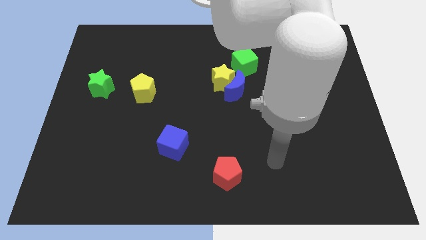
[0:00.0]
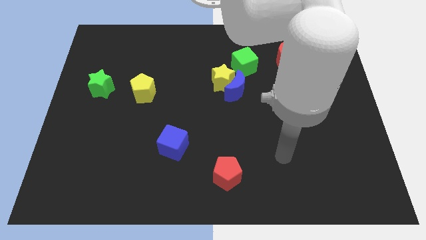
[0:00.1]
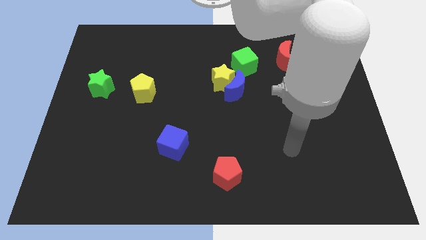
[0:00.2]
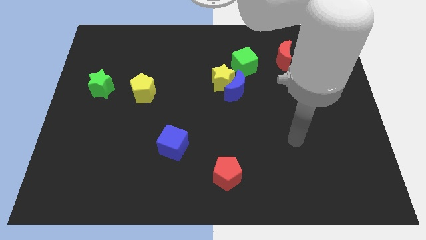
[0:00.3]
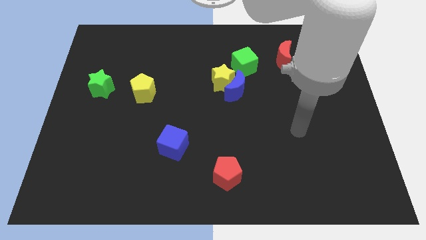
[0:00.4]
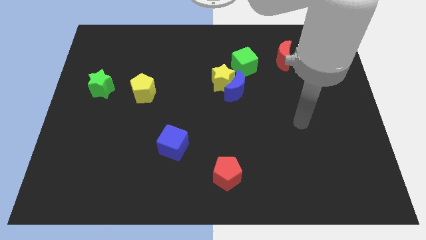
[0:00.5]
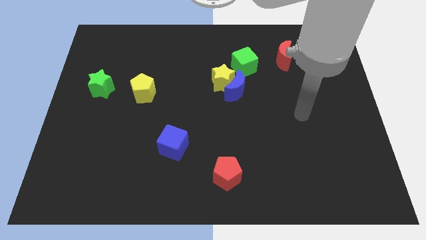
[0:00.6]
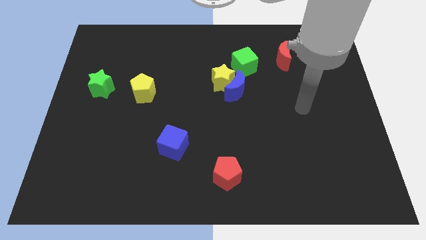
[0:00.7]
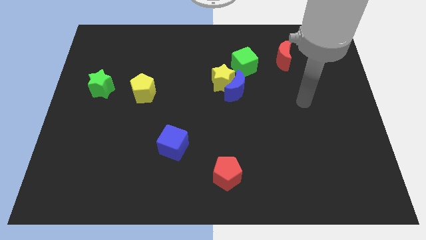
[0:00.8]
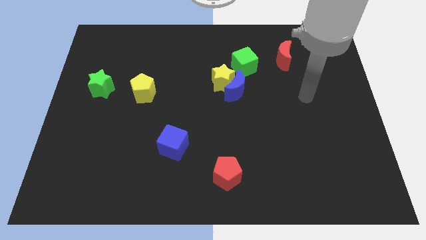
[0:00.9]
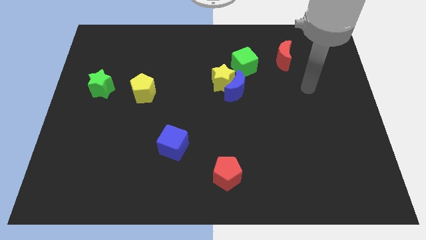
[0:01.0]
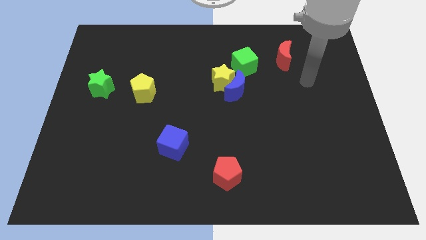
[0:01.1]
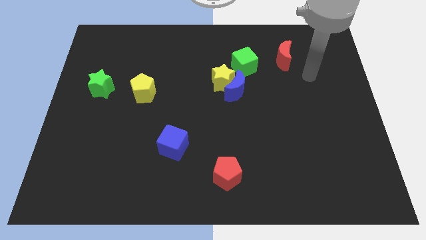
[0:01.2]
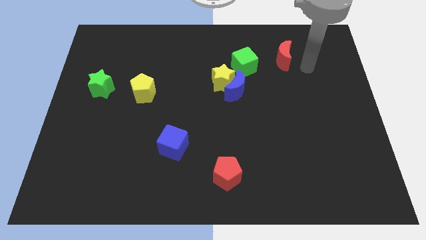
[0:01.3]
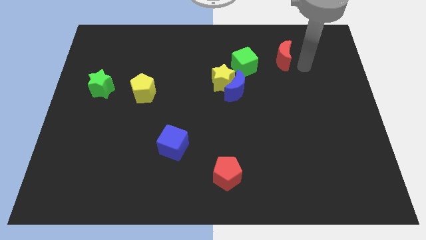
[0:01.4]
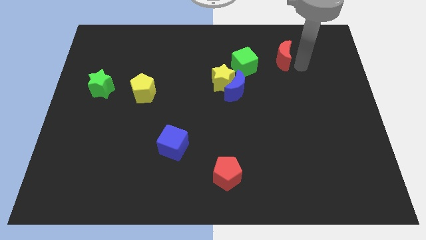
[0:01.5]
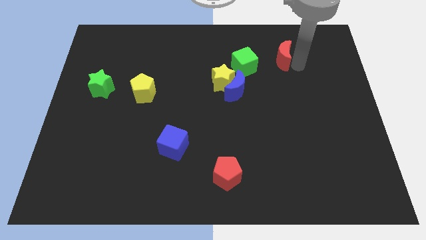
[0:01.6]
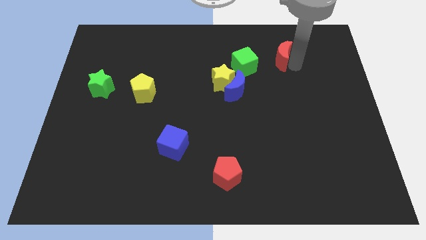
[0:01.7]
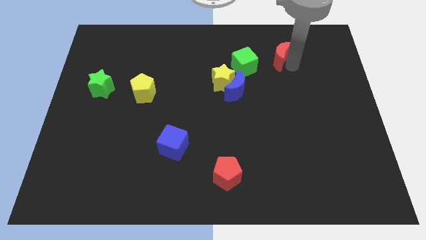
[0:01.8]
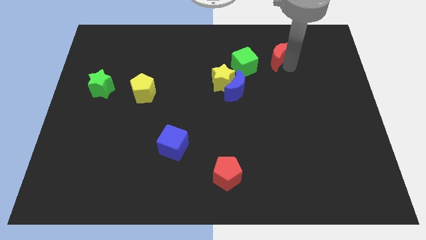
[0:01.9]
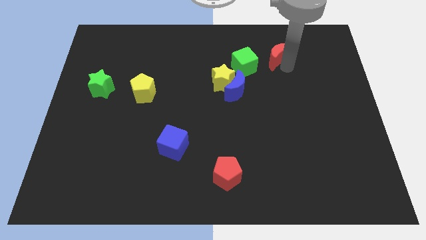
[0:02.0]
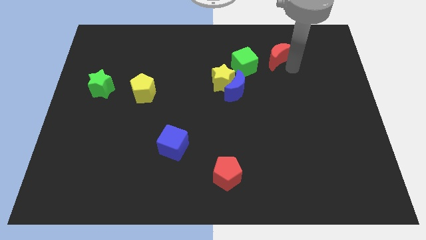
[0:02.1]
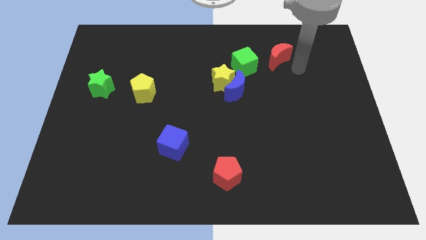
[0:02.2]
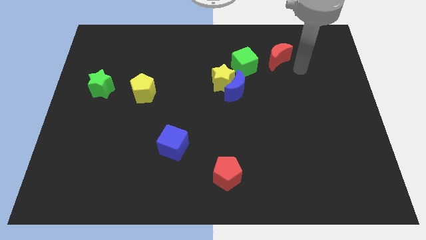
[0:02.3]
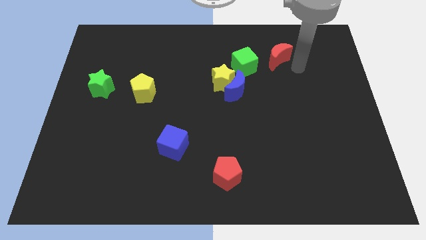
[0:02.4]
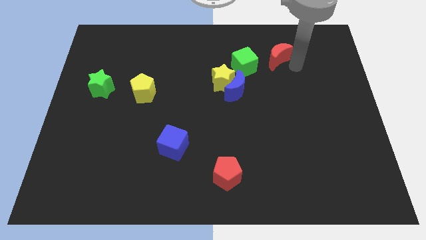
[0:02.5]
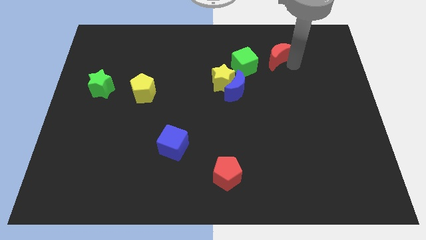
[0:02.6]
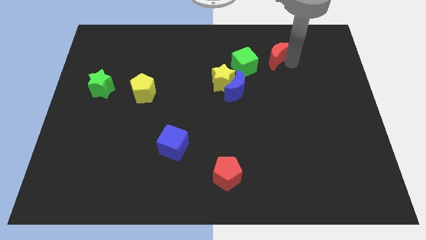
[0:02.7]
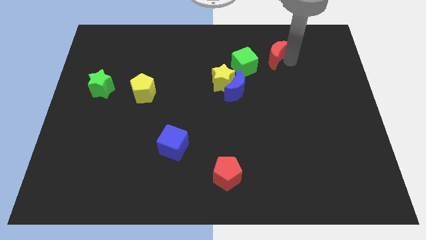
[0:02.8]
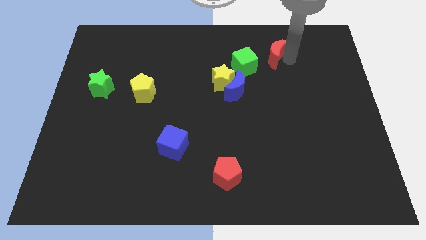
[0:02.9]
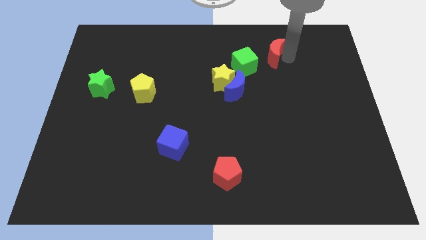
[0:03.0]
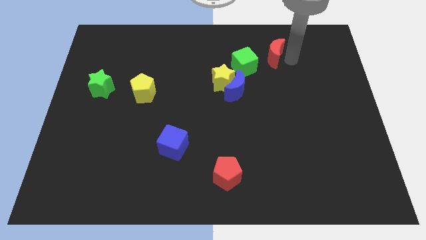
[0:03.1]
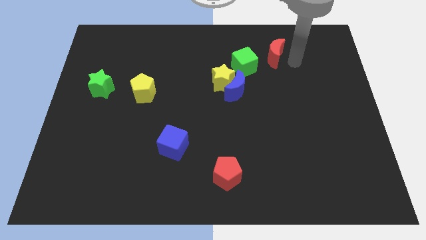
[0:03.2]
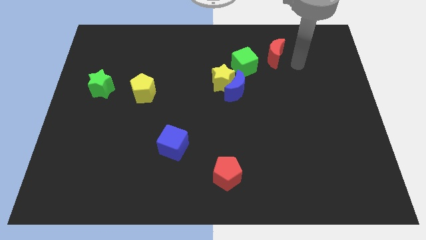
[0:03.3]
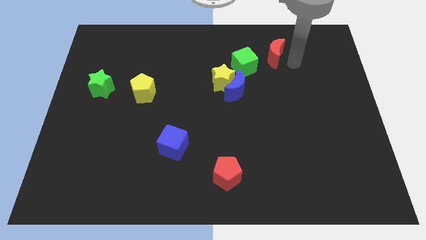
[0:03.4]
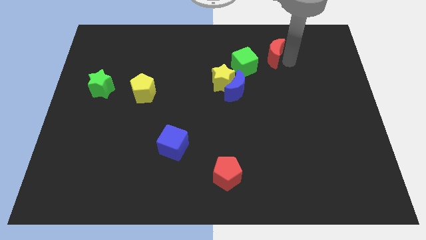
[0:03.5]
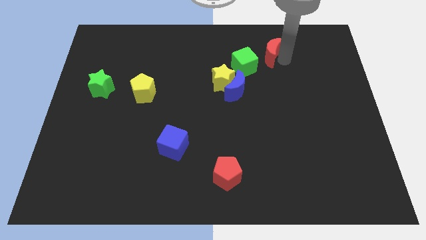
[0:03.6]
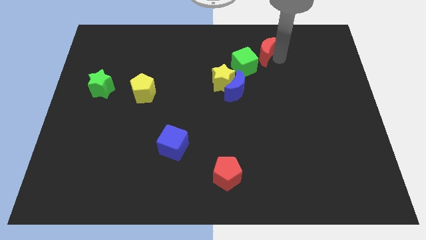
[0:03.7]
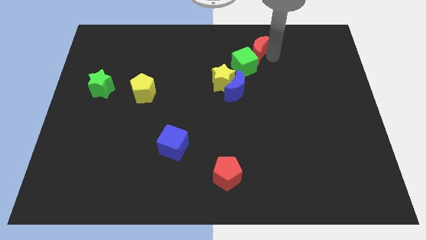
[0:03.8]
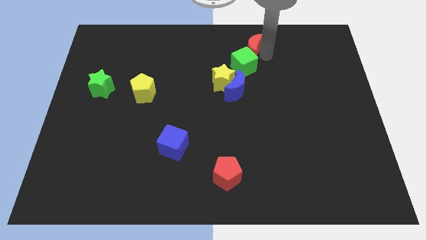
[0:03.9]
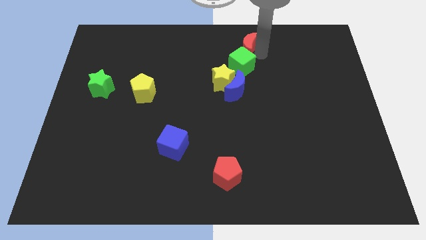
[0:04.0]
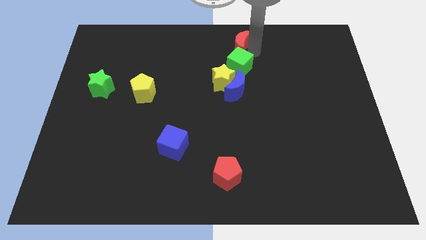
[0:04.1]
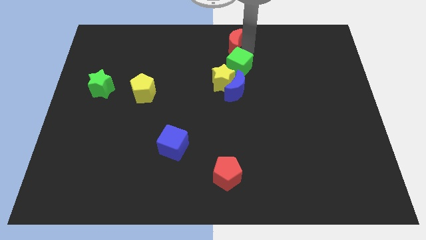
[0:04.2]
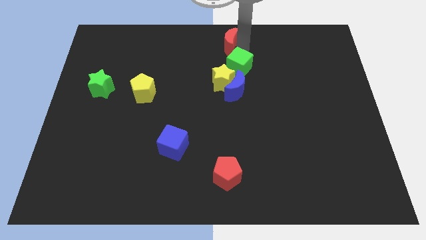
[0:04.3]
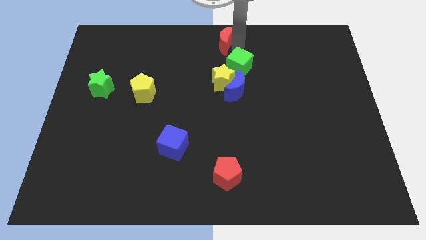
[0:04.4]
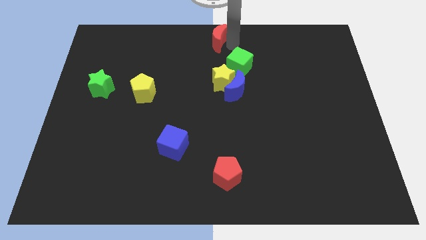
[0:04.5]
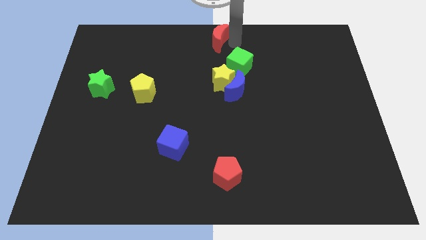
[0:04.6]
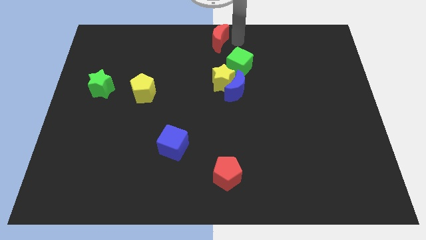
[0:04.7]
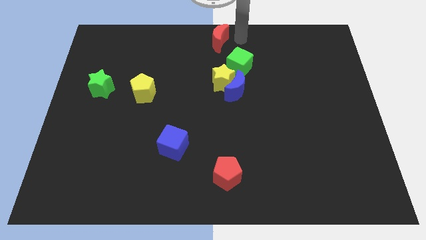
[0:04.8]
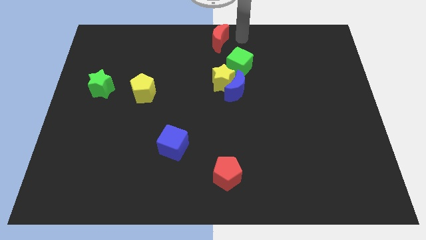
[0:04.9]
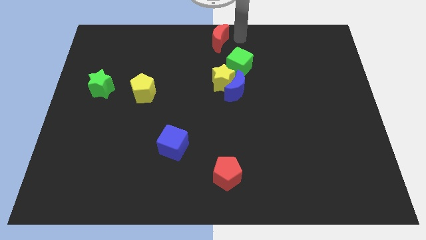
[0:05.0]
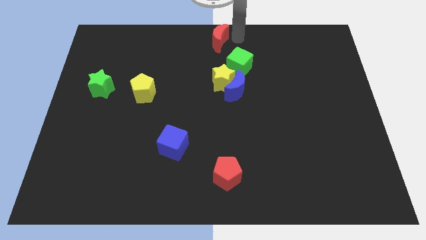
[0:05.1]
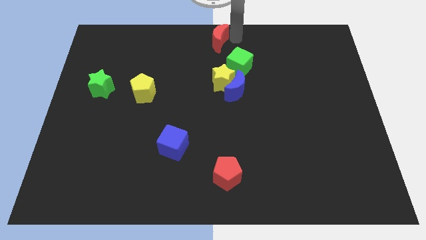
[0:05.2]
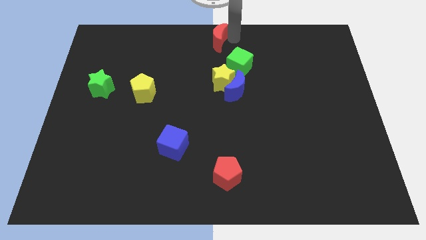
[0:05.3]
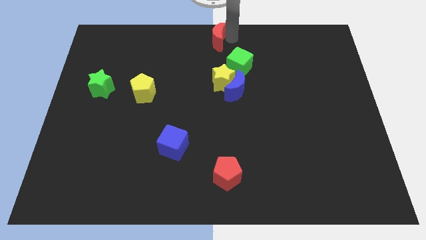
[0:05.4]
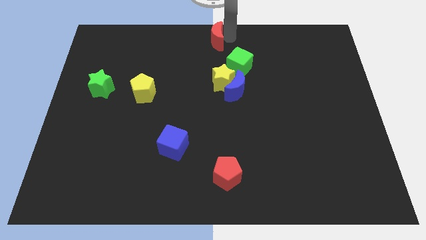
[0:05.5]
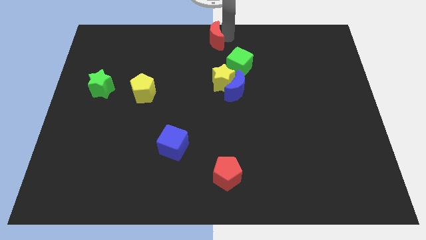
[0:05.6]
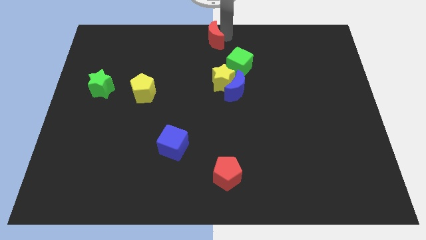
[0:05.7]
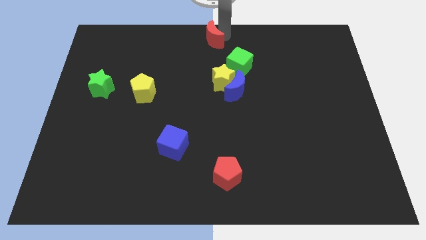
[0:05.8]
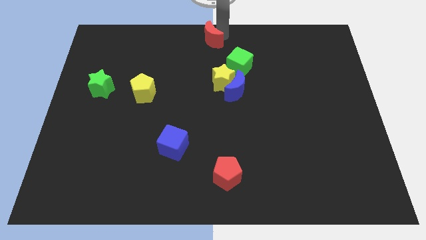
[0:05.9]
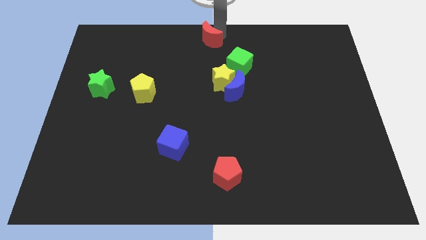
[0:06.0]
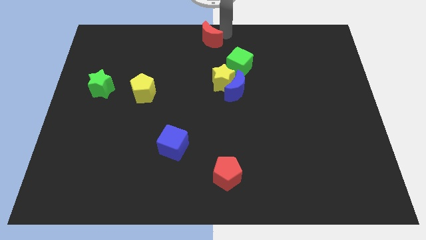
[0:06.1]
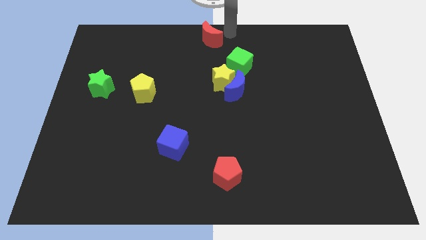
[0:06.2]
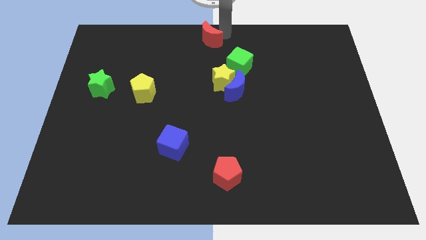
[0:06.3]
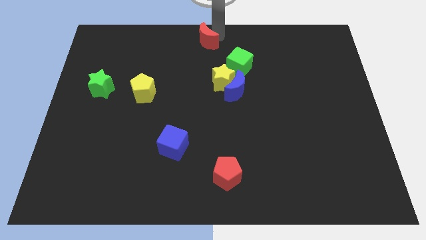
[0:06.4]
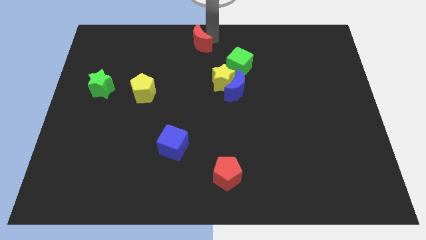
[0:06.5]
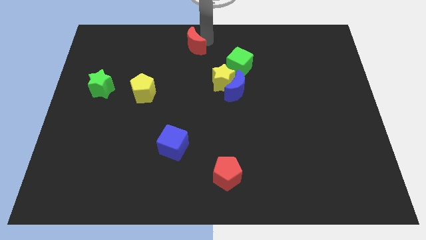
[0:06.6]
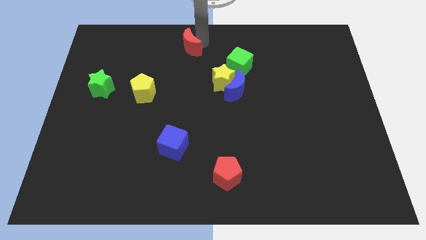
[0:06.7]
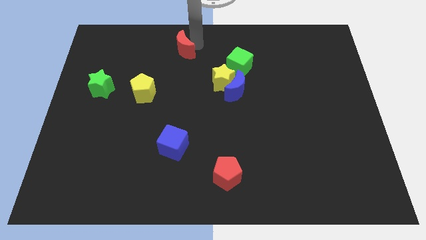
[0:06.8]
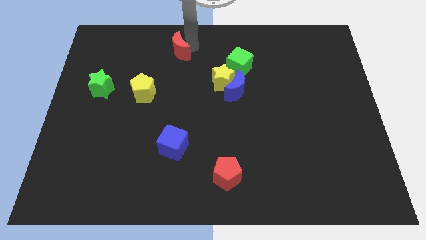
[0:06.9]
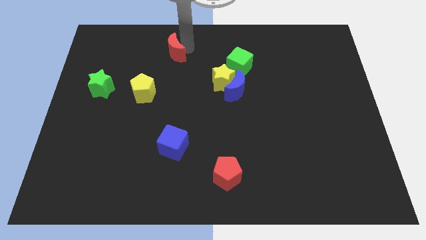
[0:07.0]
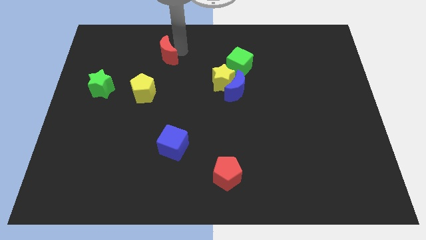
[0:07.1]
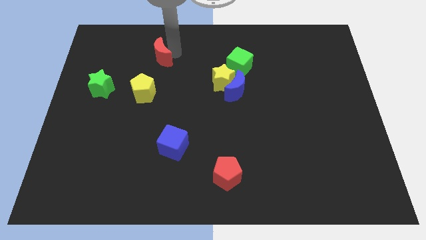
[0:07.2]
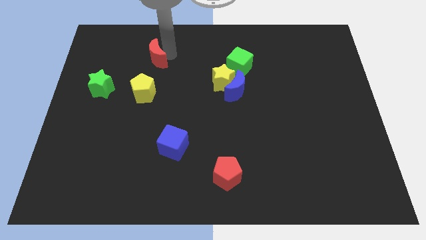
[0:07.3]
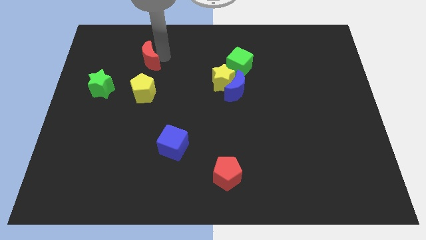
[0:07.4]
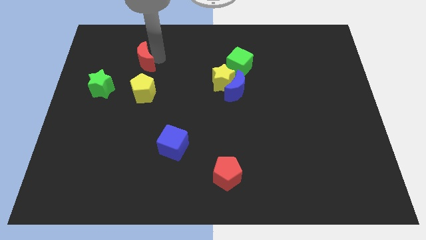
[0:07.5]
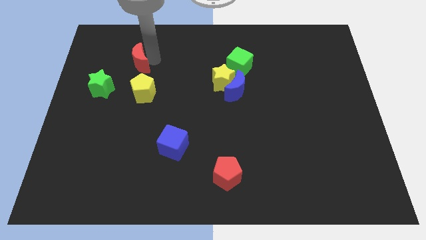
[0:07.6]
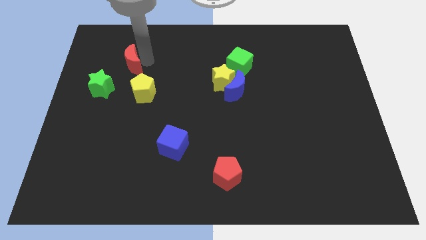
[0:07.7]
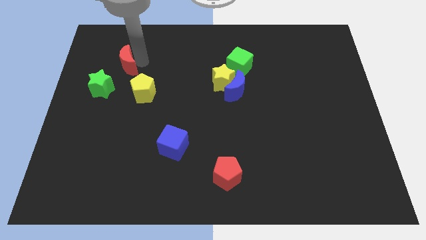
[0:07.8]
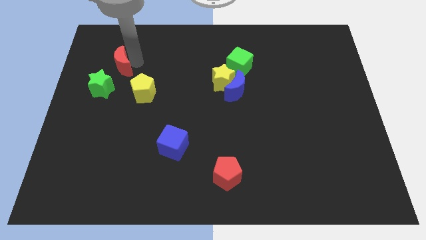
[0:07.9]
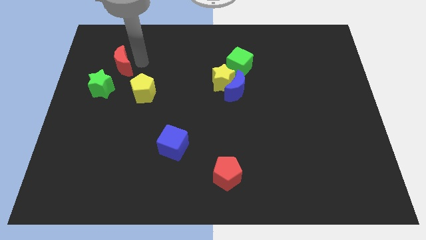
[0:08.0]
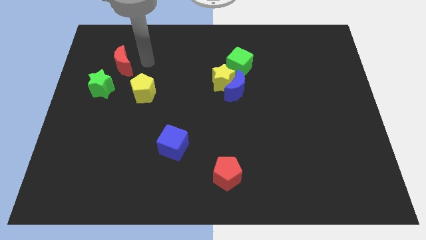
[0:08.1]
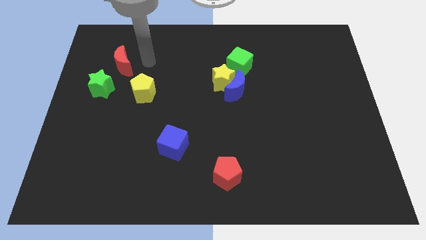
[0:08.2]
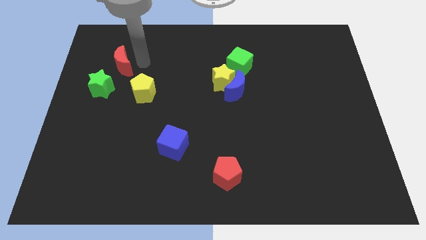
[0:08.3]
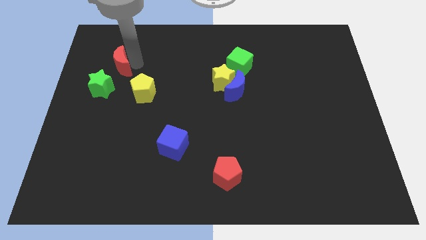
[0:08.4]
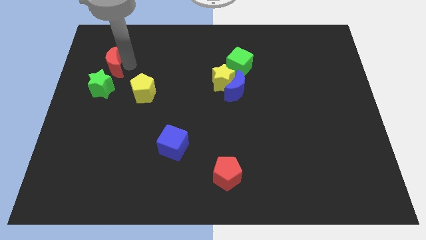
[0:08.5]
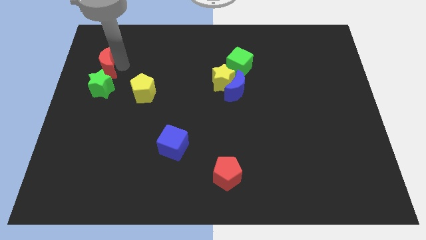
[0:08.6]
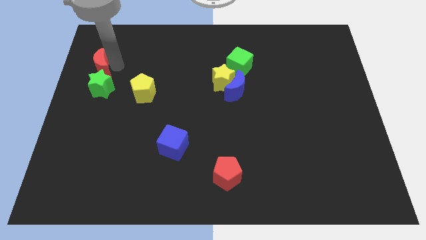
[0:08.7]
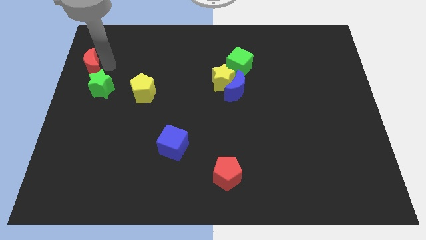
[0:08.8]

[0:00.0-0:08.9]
put the red moon to the center left
